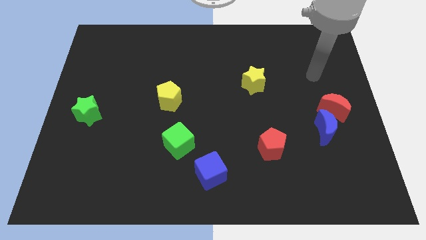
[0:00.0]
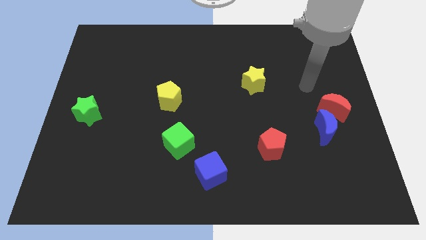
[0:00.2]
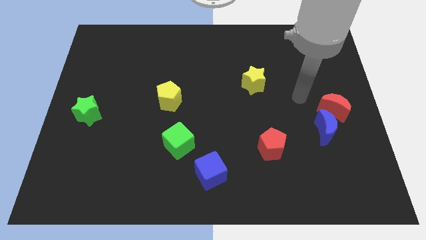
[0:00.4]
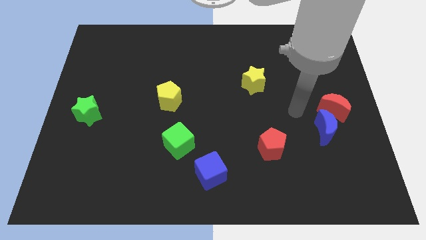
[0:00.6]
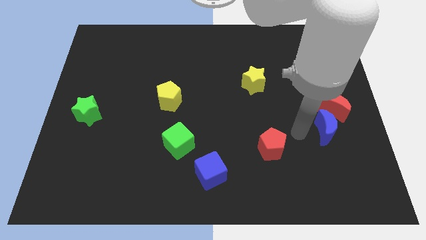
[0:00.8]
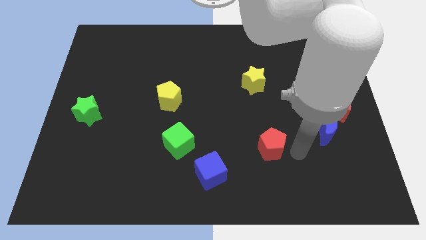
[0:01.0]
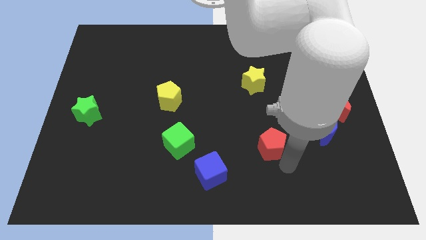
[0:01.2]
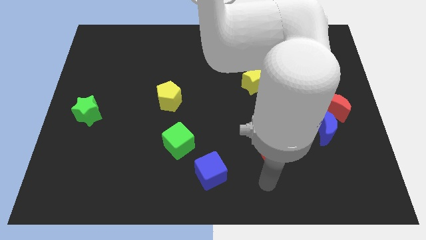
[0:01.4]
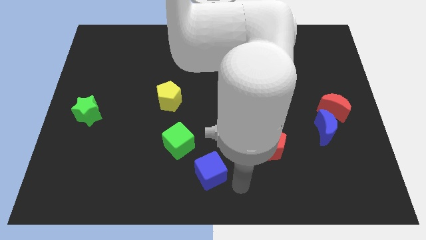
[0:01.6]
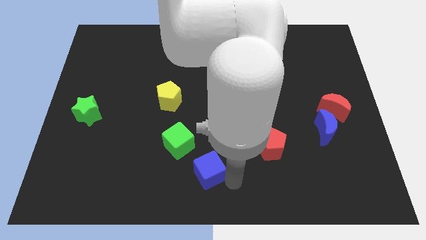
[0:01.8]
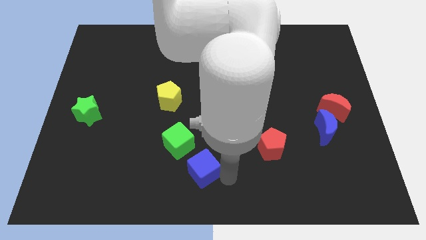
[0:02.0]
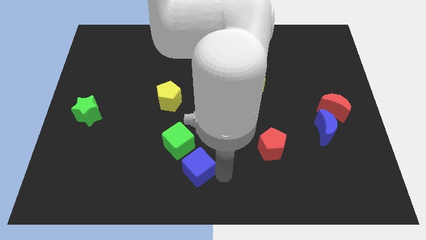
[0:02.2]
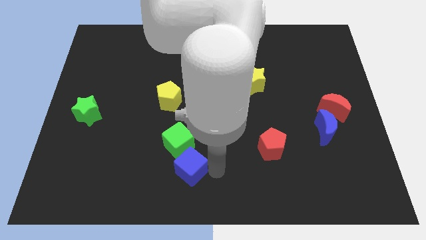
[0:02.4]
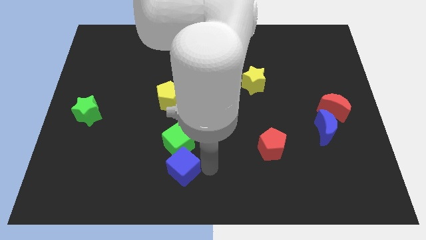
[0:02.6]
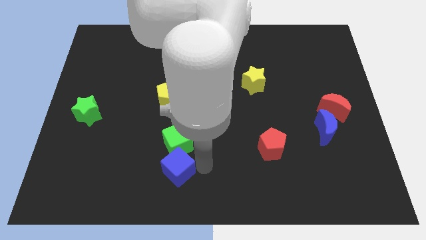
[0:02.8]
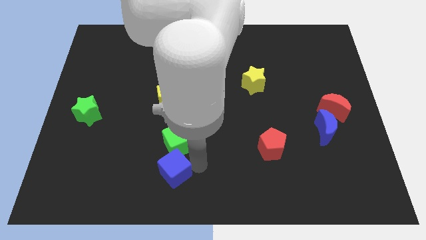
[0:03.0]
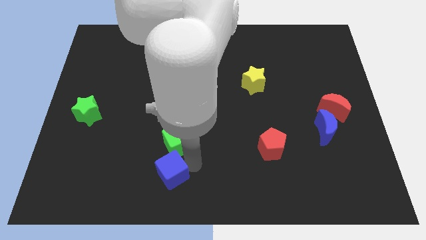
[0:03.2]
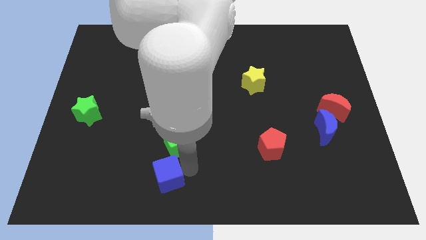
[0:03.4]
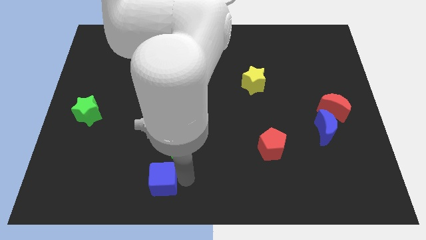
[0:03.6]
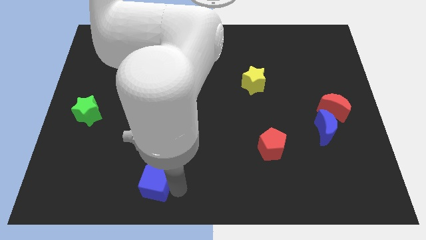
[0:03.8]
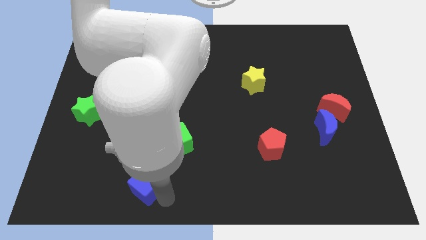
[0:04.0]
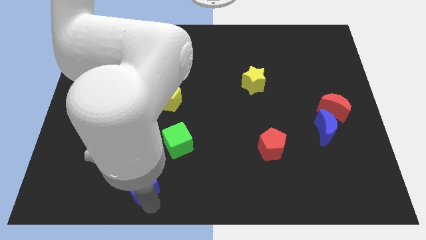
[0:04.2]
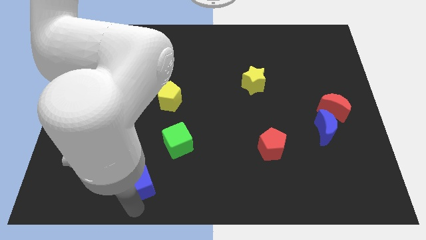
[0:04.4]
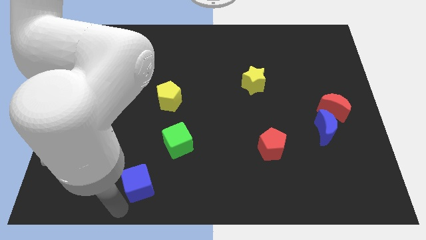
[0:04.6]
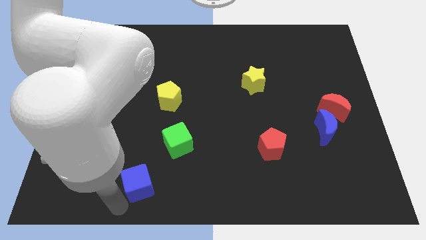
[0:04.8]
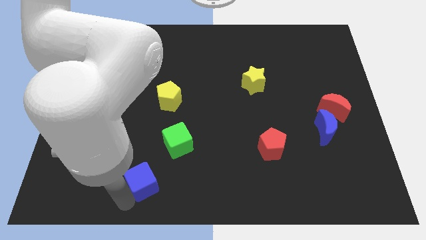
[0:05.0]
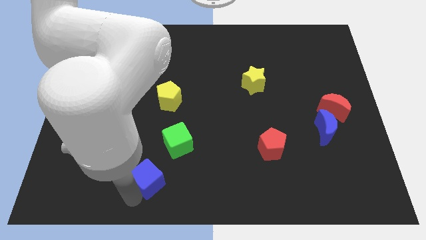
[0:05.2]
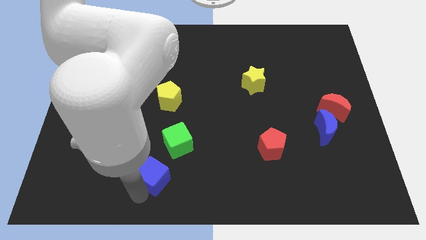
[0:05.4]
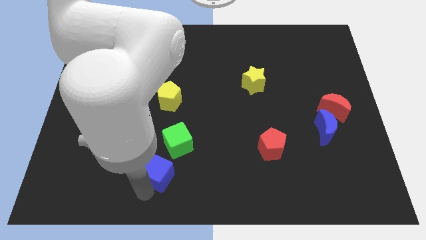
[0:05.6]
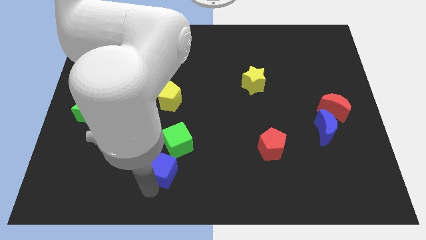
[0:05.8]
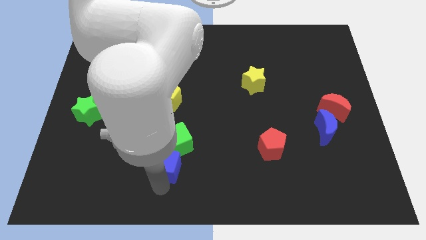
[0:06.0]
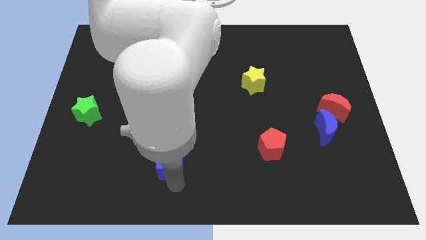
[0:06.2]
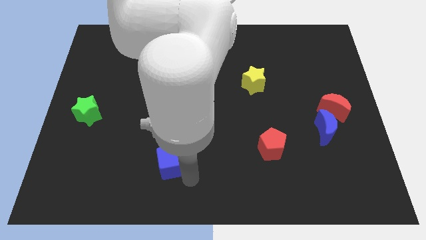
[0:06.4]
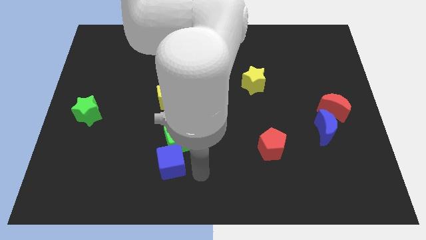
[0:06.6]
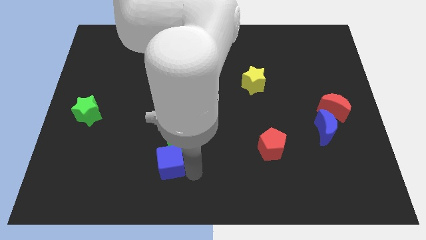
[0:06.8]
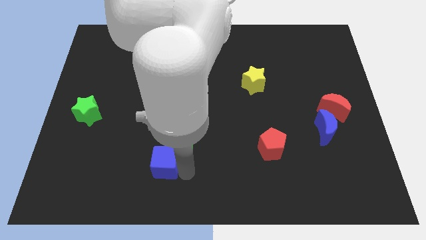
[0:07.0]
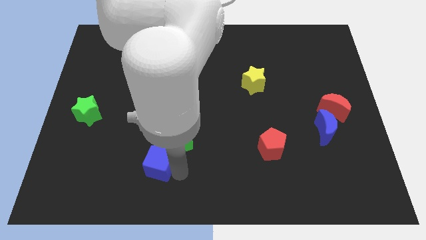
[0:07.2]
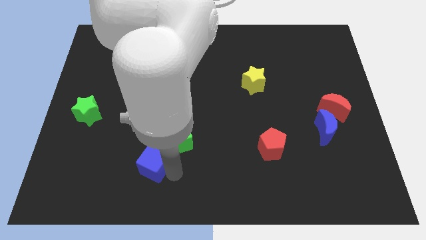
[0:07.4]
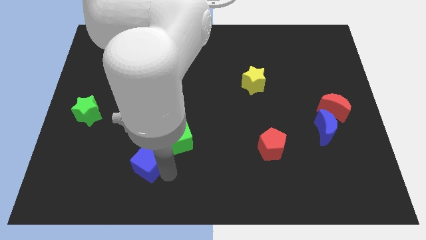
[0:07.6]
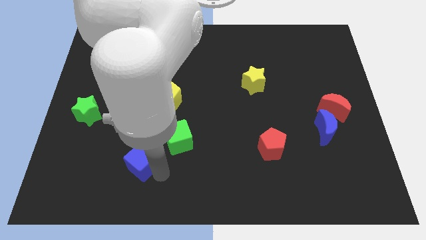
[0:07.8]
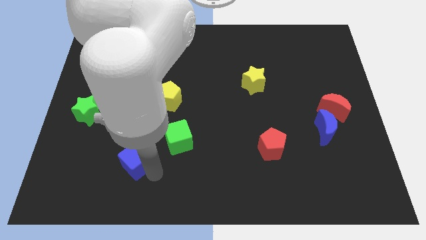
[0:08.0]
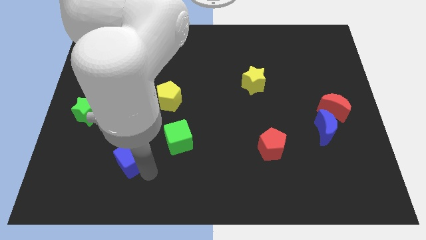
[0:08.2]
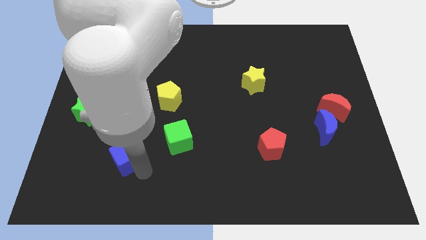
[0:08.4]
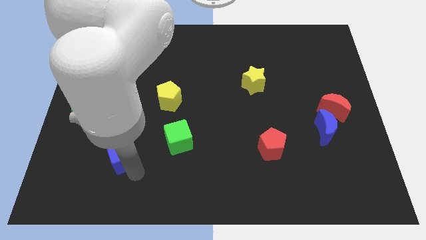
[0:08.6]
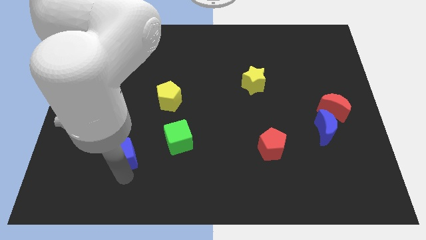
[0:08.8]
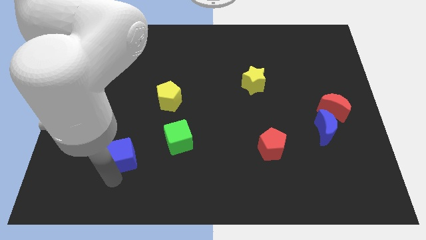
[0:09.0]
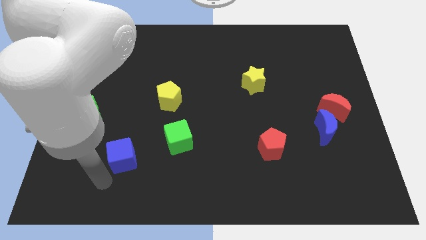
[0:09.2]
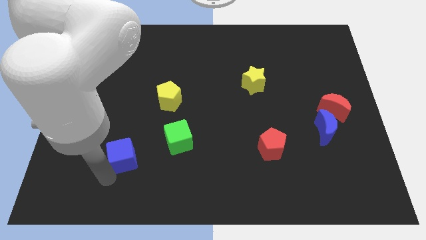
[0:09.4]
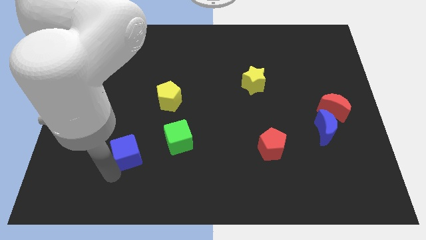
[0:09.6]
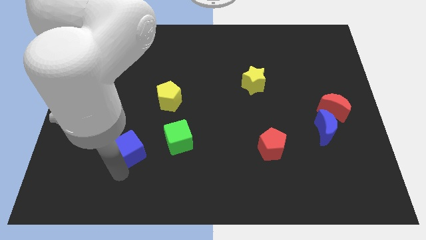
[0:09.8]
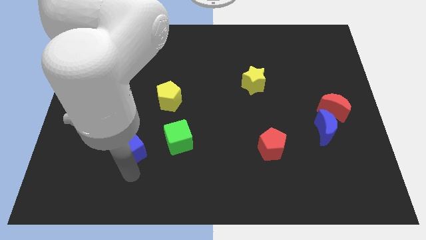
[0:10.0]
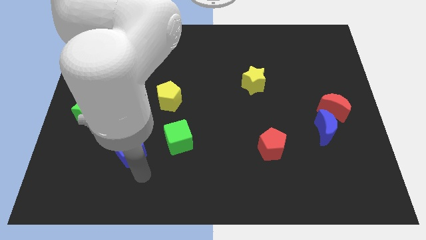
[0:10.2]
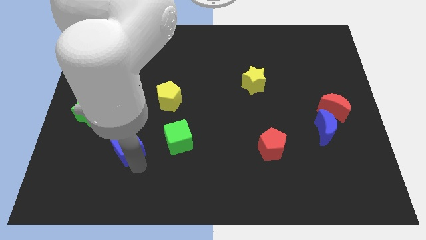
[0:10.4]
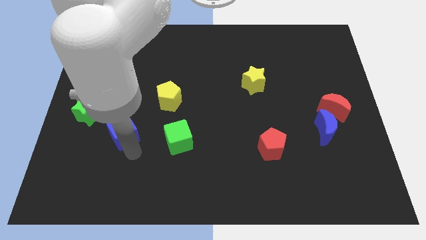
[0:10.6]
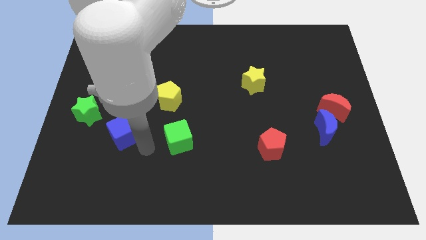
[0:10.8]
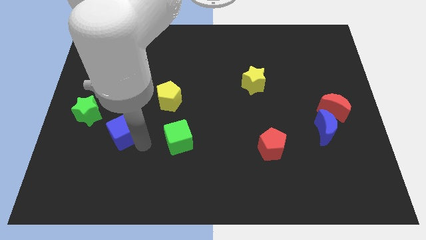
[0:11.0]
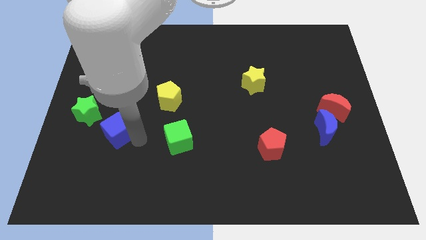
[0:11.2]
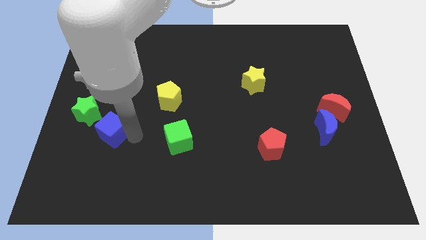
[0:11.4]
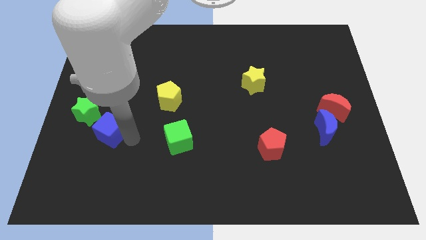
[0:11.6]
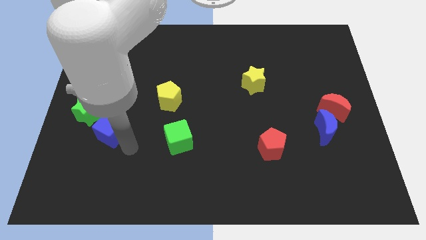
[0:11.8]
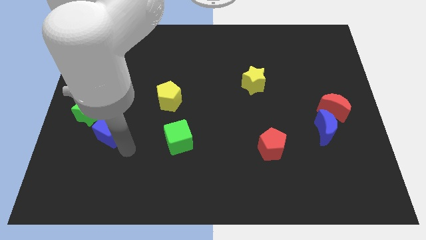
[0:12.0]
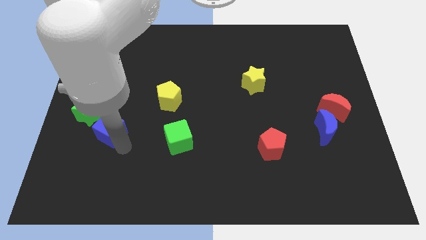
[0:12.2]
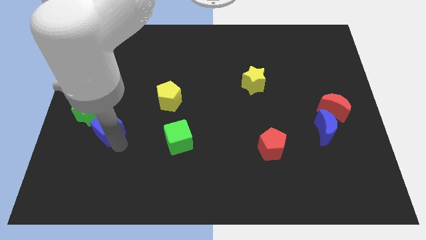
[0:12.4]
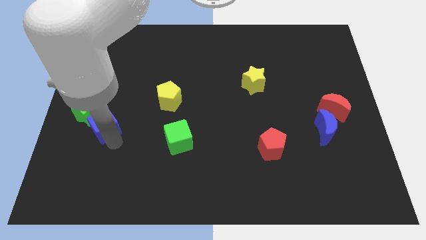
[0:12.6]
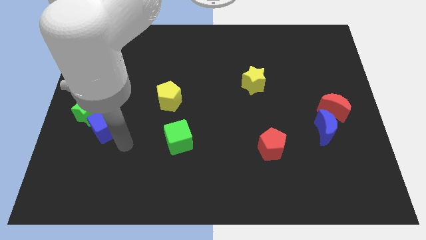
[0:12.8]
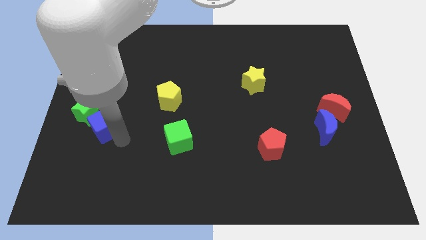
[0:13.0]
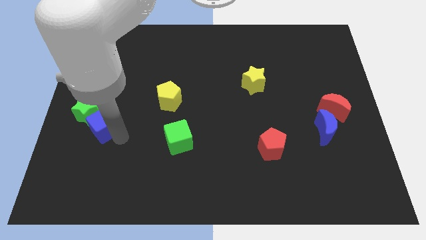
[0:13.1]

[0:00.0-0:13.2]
move the blue cube to the green star
